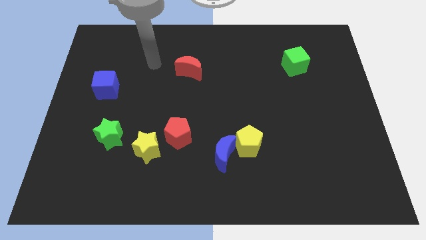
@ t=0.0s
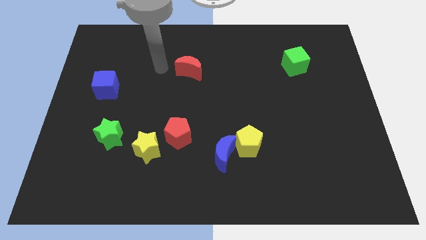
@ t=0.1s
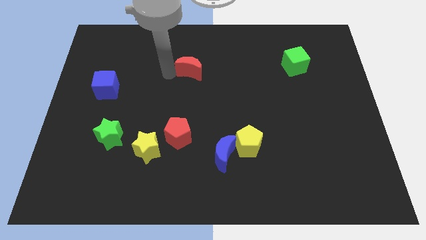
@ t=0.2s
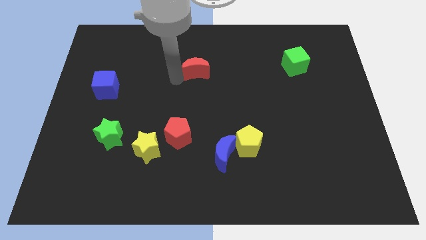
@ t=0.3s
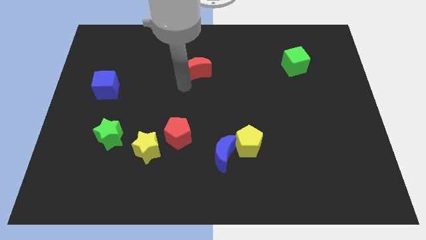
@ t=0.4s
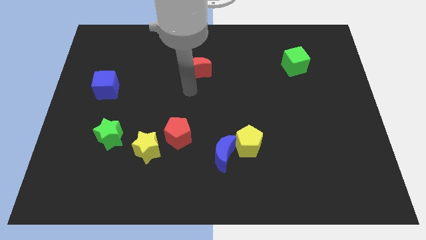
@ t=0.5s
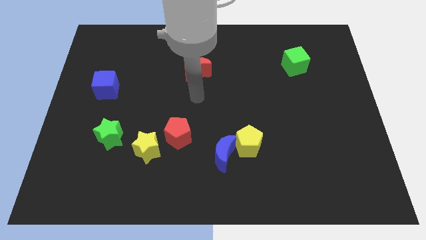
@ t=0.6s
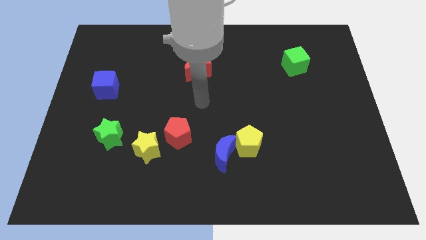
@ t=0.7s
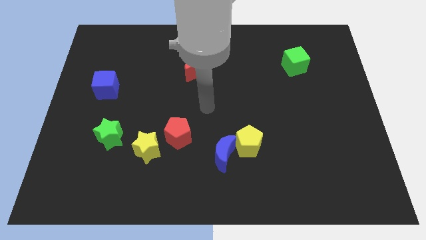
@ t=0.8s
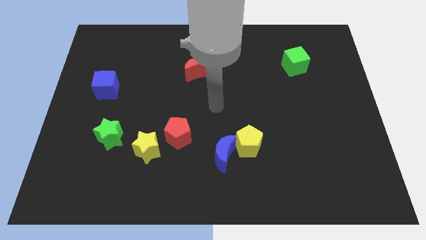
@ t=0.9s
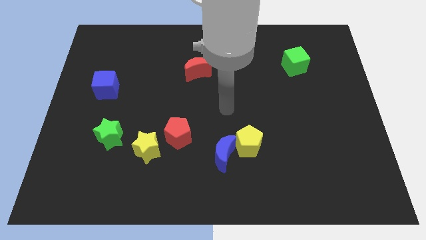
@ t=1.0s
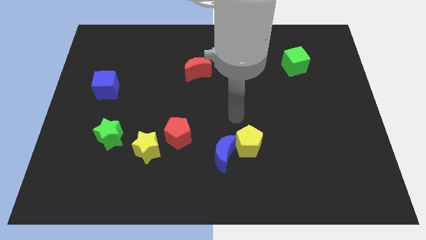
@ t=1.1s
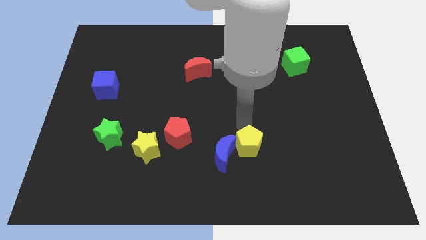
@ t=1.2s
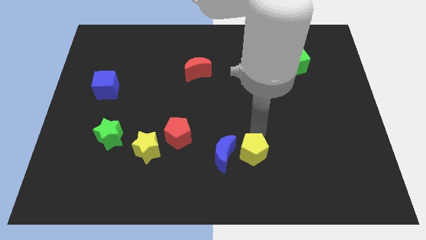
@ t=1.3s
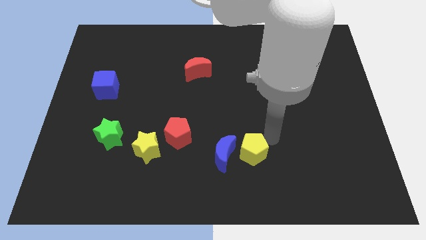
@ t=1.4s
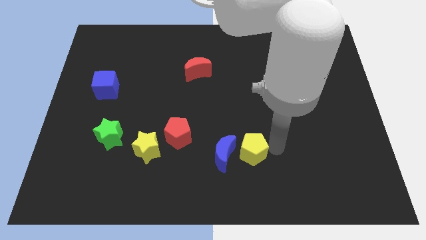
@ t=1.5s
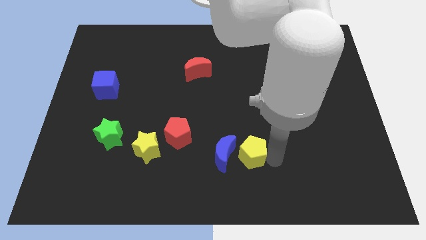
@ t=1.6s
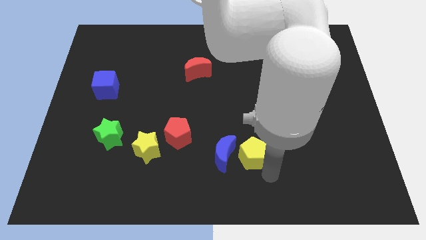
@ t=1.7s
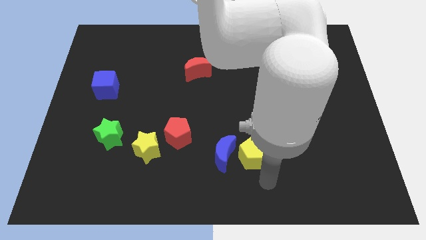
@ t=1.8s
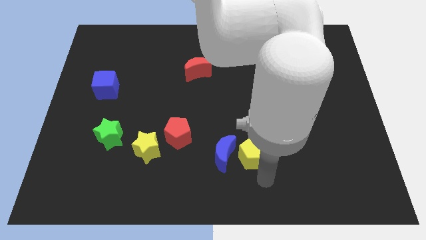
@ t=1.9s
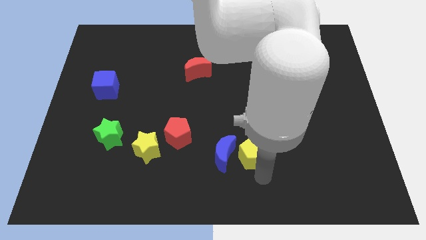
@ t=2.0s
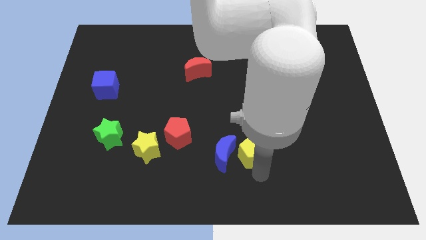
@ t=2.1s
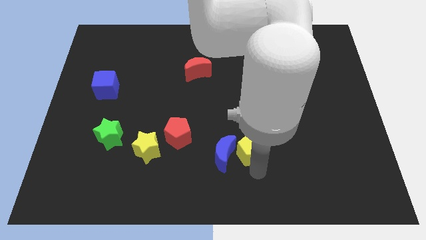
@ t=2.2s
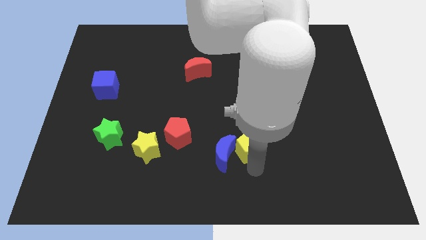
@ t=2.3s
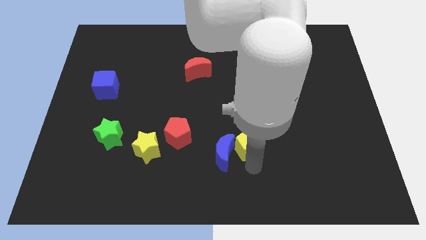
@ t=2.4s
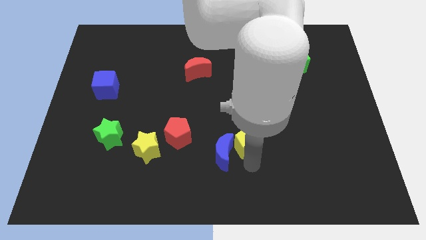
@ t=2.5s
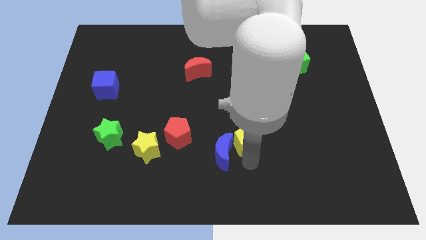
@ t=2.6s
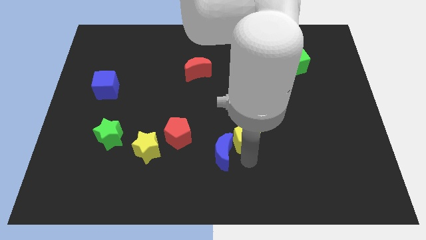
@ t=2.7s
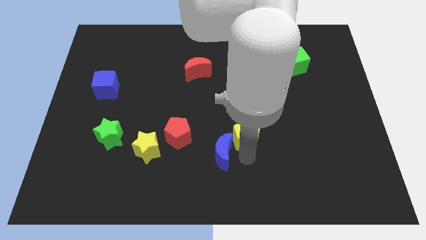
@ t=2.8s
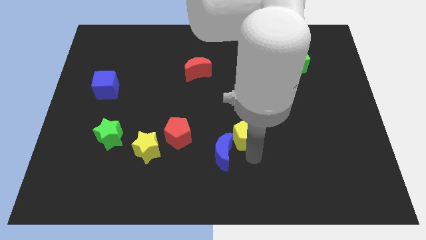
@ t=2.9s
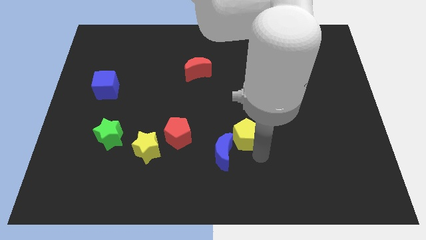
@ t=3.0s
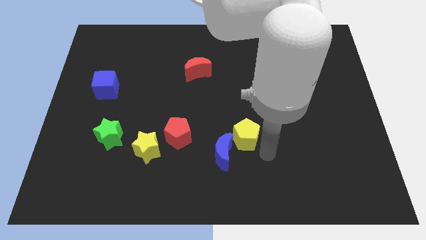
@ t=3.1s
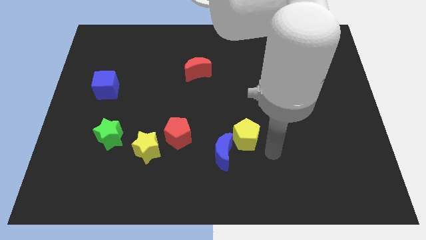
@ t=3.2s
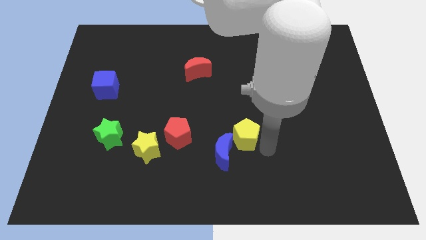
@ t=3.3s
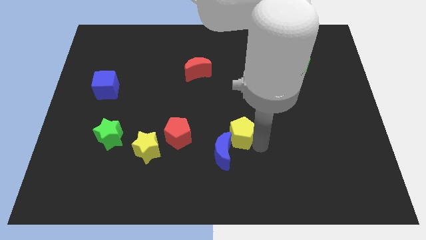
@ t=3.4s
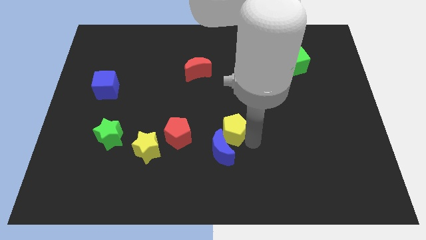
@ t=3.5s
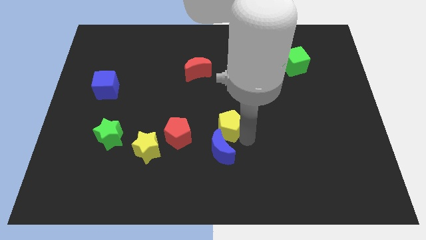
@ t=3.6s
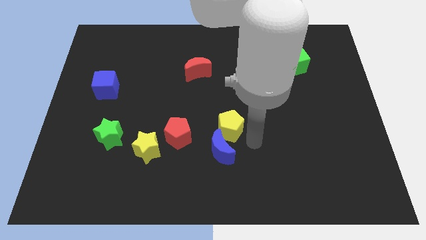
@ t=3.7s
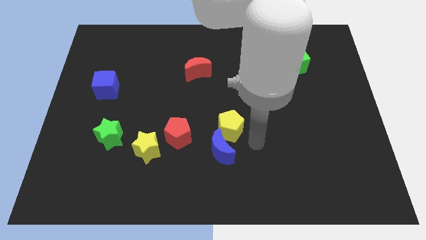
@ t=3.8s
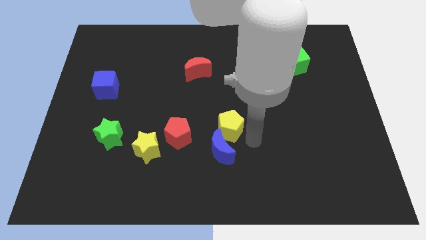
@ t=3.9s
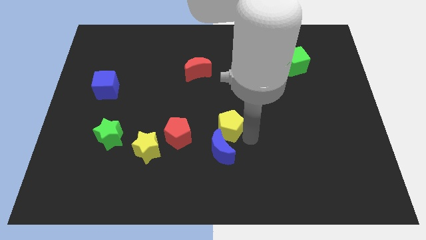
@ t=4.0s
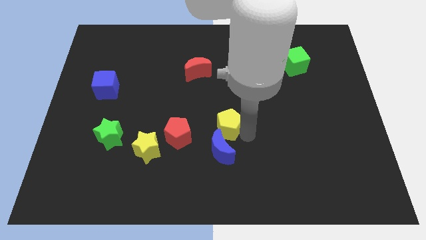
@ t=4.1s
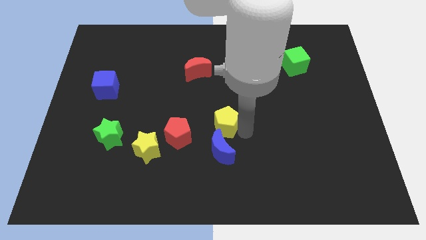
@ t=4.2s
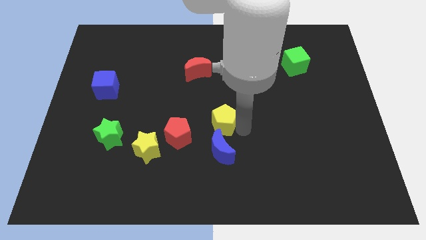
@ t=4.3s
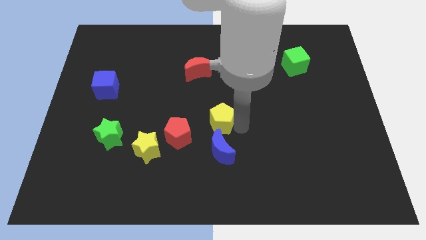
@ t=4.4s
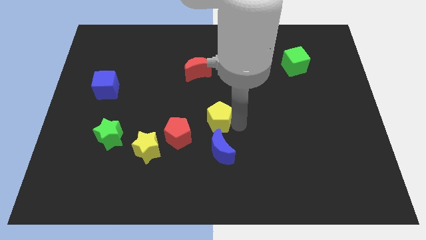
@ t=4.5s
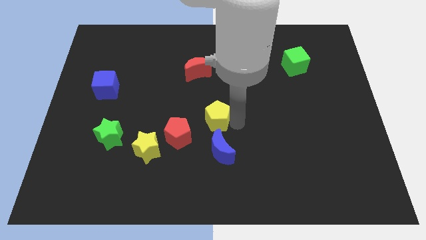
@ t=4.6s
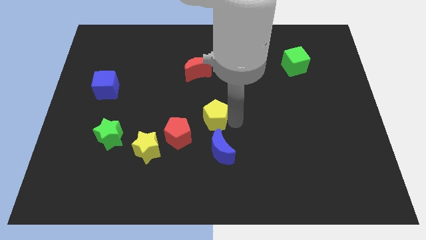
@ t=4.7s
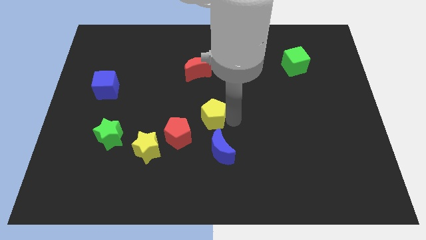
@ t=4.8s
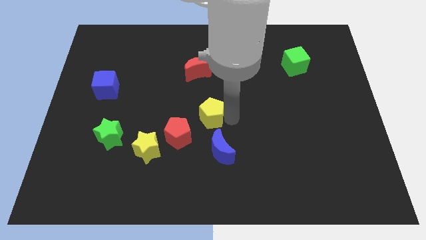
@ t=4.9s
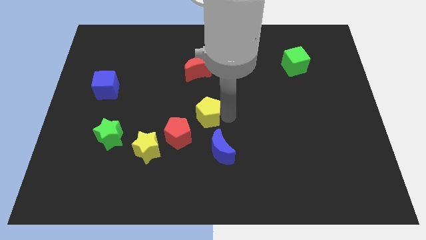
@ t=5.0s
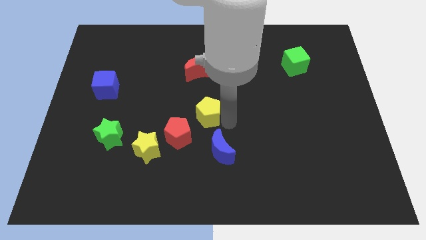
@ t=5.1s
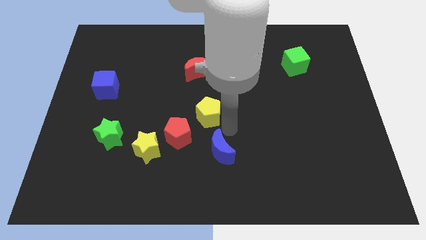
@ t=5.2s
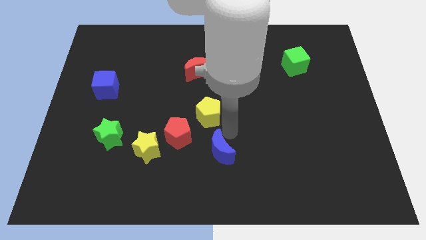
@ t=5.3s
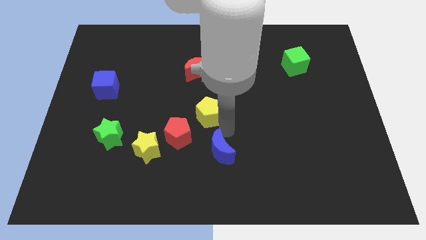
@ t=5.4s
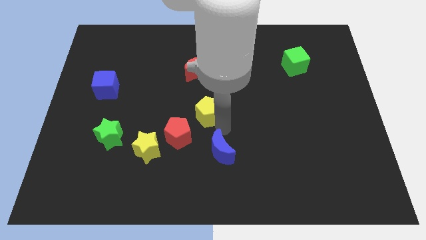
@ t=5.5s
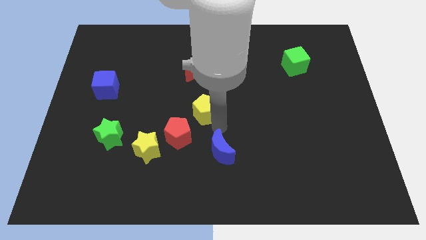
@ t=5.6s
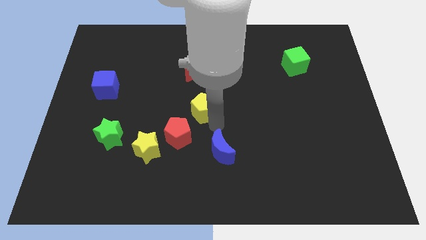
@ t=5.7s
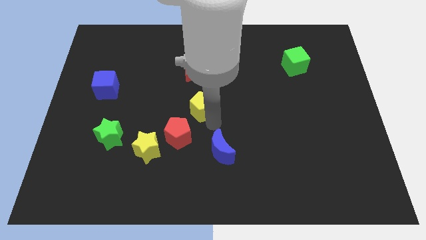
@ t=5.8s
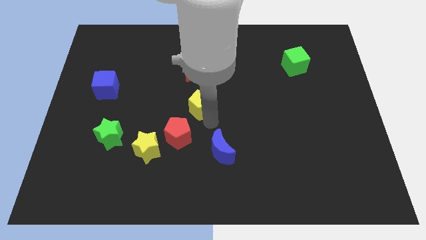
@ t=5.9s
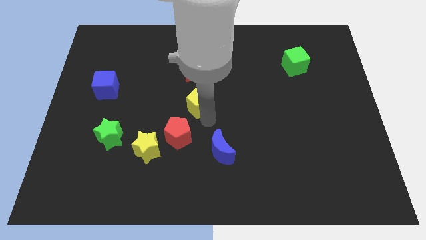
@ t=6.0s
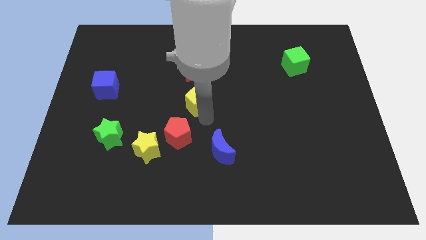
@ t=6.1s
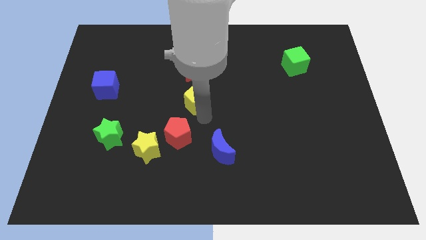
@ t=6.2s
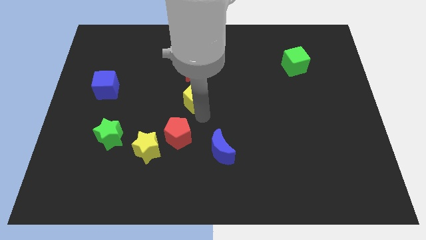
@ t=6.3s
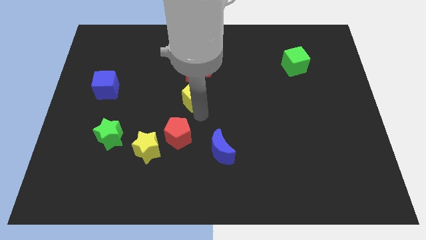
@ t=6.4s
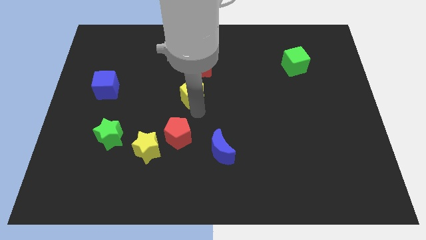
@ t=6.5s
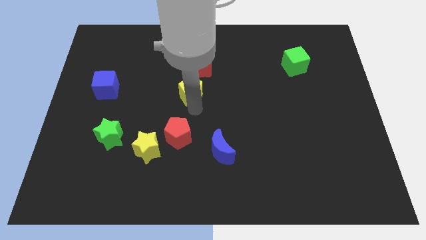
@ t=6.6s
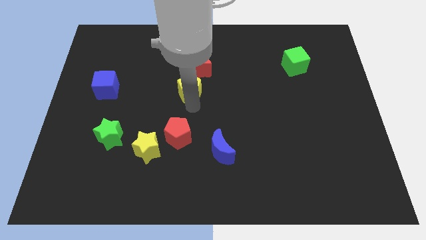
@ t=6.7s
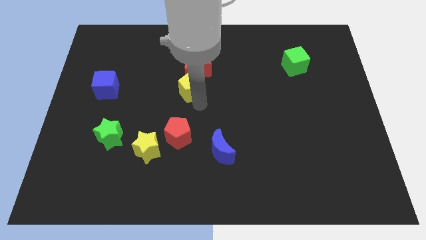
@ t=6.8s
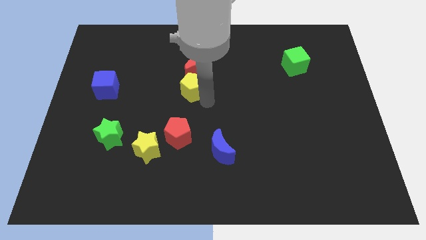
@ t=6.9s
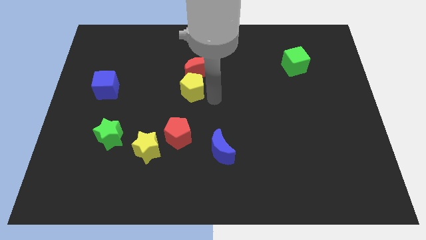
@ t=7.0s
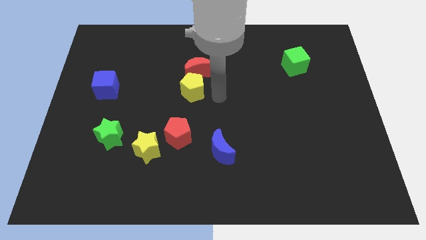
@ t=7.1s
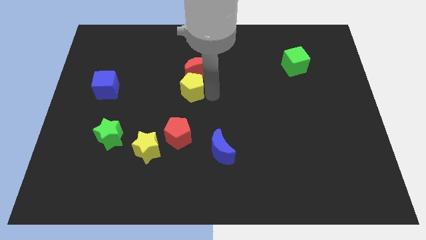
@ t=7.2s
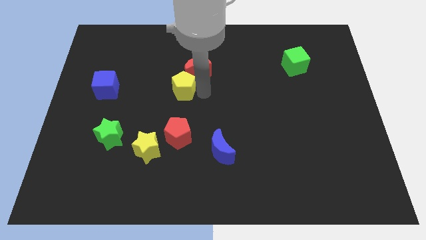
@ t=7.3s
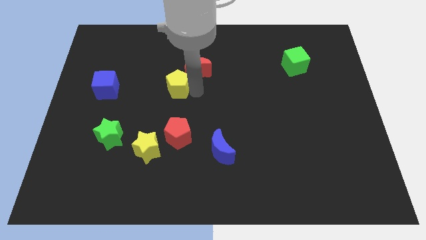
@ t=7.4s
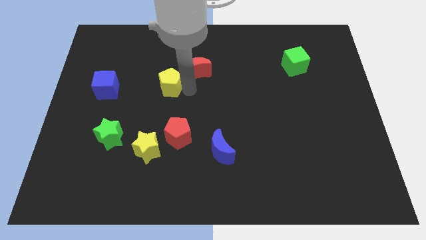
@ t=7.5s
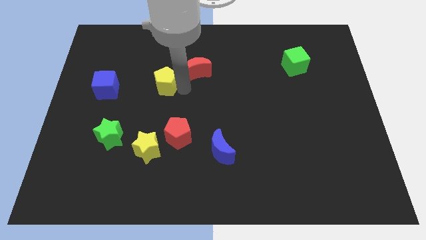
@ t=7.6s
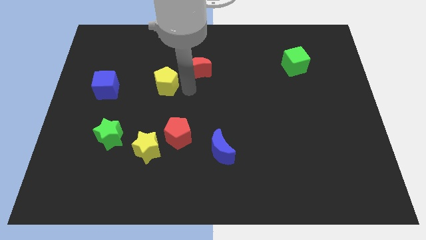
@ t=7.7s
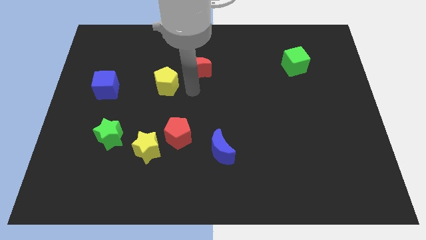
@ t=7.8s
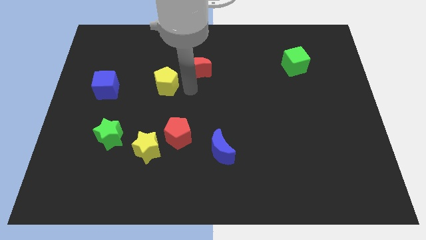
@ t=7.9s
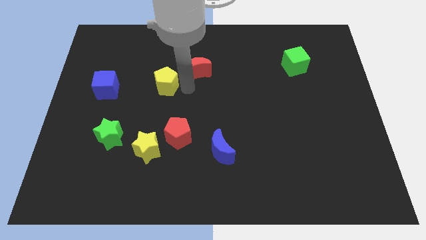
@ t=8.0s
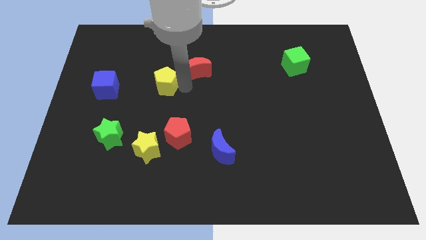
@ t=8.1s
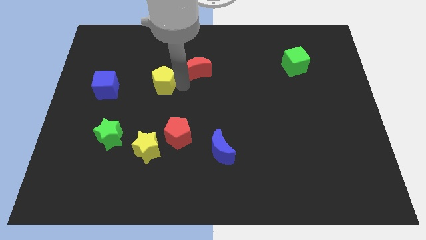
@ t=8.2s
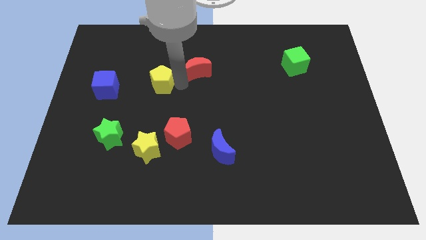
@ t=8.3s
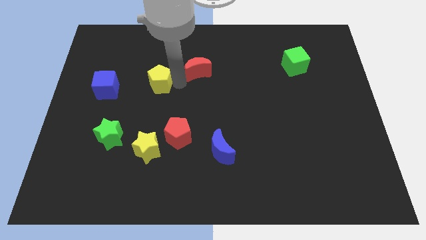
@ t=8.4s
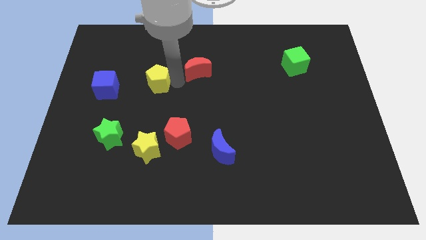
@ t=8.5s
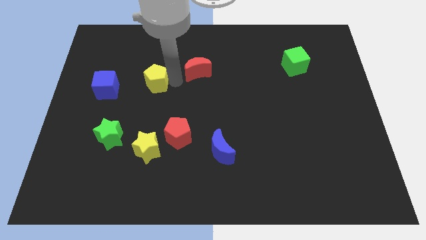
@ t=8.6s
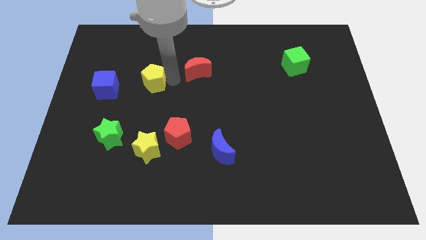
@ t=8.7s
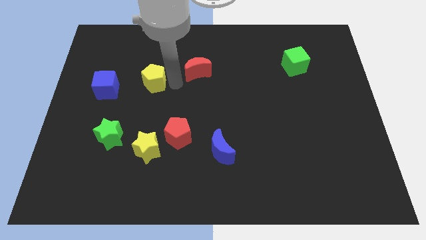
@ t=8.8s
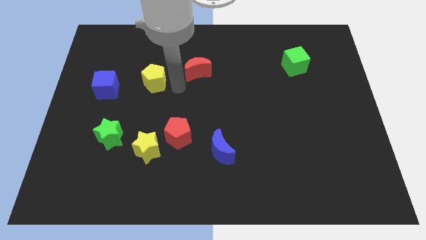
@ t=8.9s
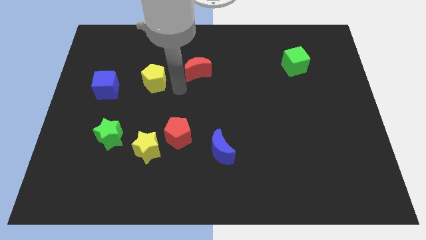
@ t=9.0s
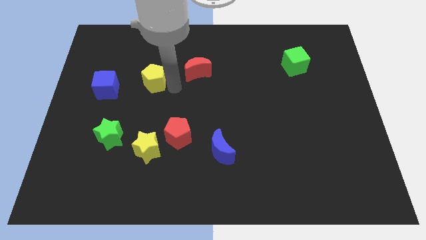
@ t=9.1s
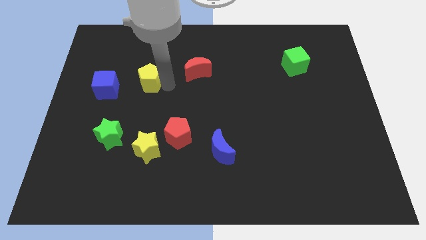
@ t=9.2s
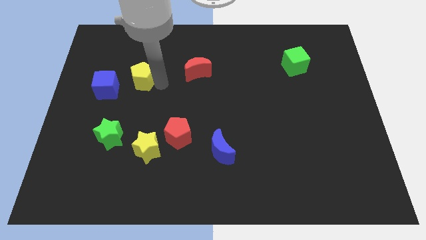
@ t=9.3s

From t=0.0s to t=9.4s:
move the yellow pentagon diagonally up and to the right of the blue cube
